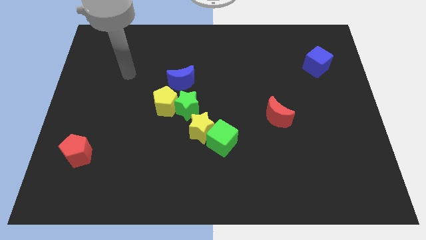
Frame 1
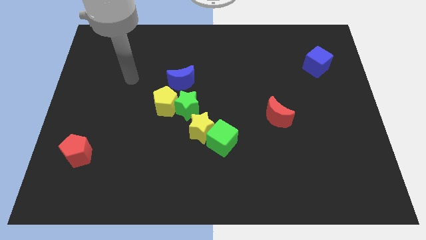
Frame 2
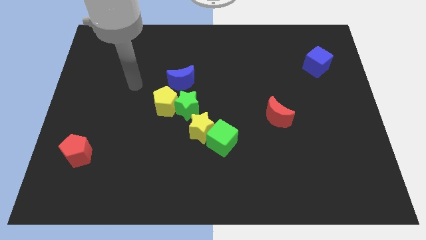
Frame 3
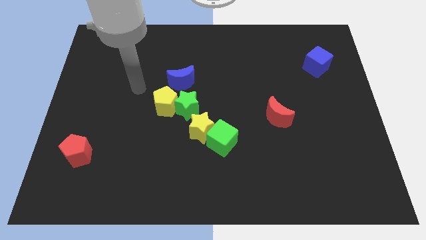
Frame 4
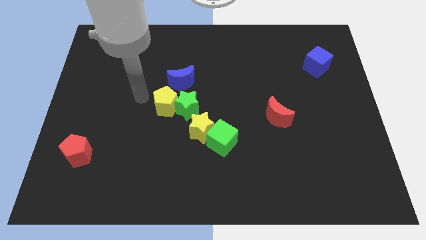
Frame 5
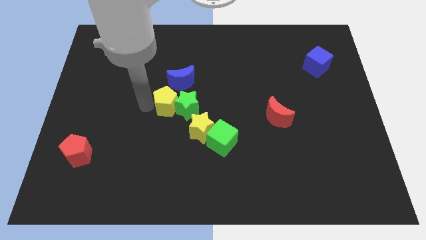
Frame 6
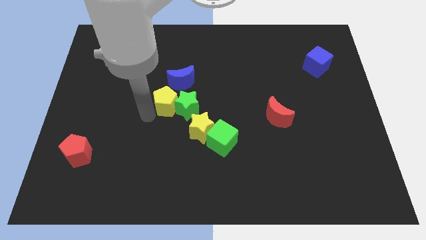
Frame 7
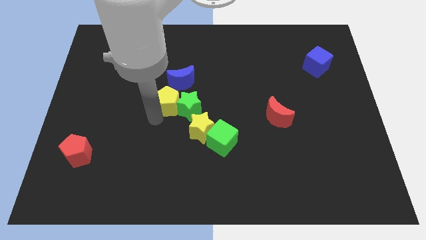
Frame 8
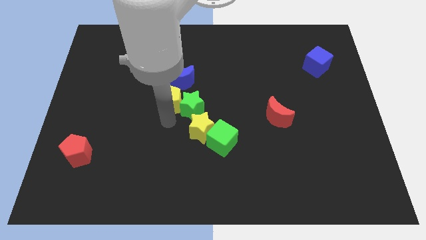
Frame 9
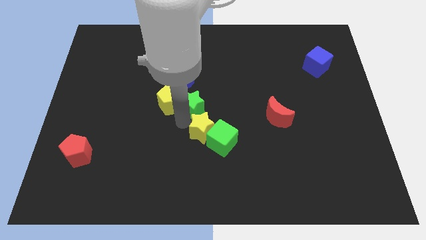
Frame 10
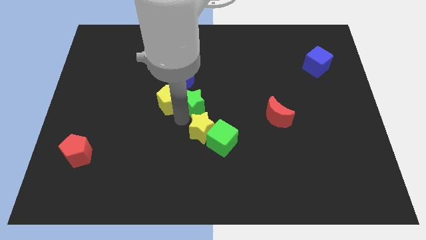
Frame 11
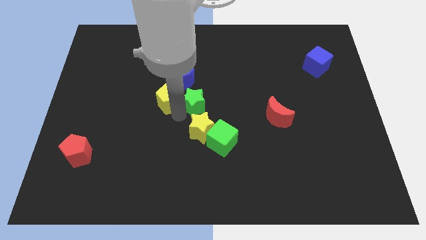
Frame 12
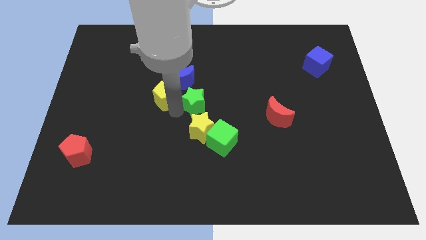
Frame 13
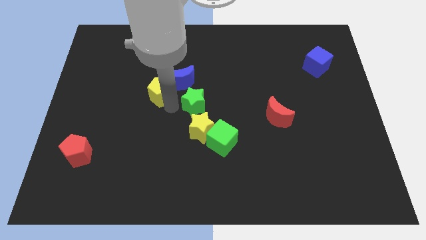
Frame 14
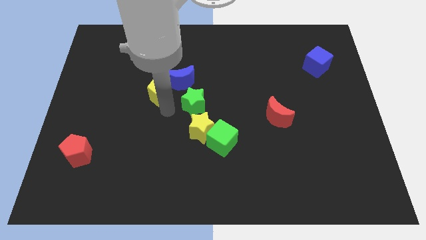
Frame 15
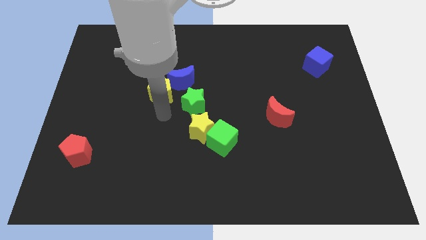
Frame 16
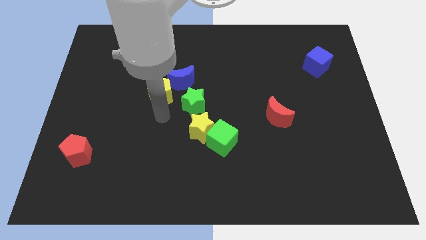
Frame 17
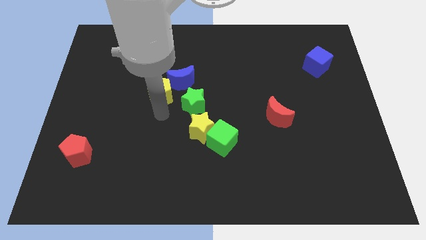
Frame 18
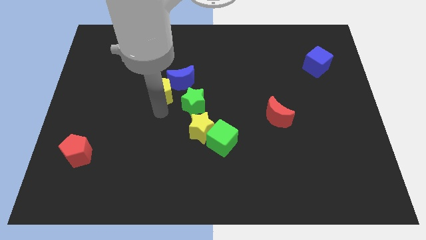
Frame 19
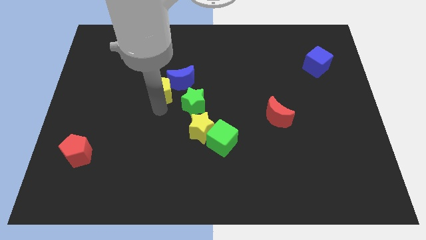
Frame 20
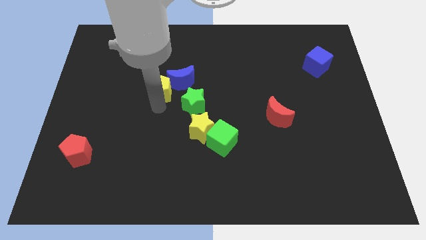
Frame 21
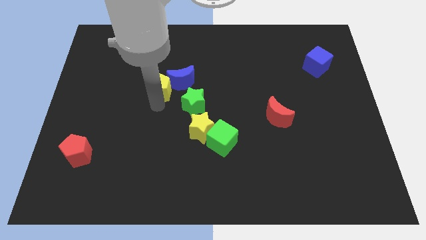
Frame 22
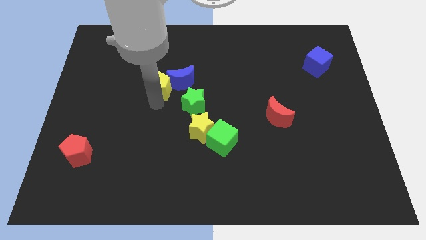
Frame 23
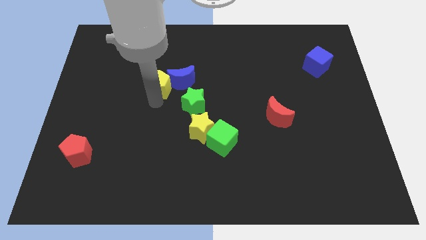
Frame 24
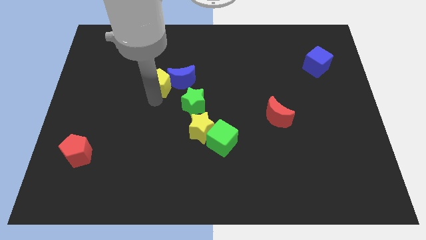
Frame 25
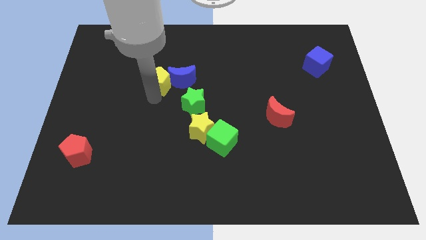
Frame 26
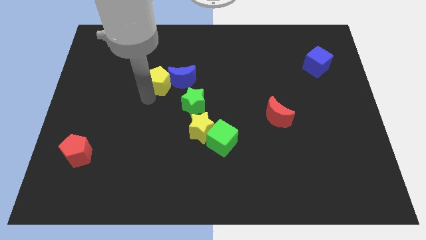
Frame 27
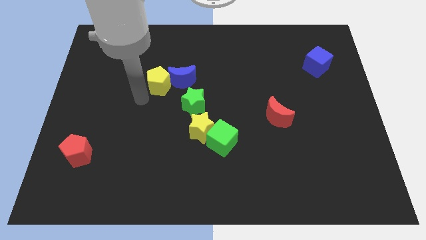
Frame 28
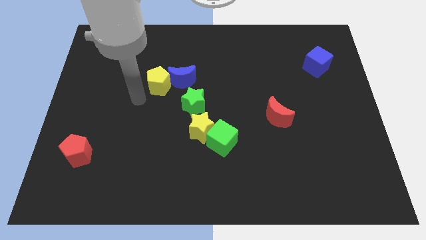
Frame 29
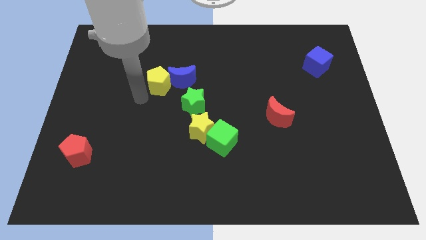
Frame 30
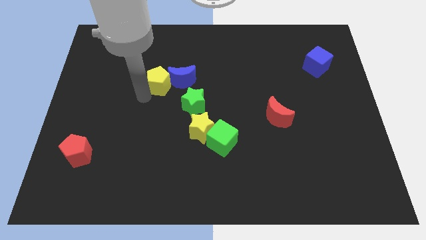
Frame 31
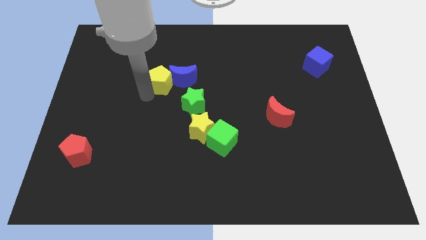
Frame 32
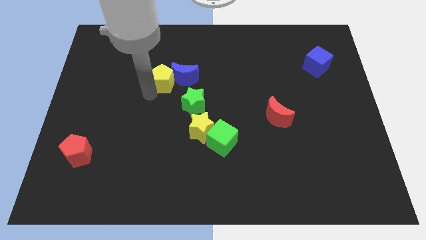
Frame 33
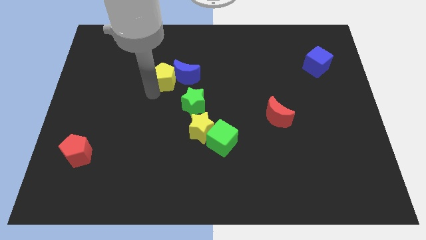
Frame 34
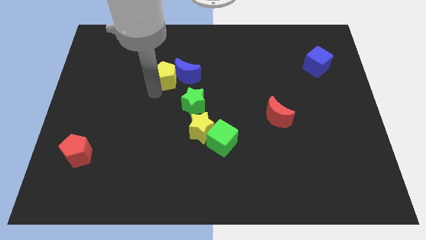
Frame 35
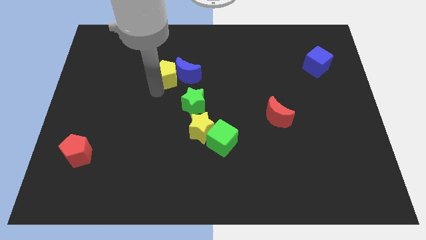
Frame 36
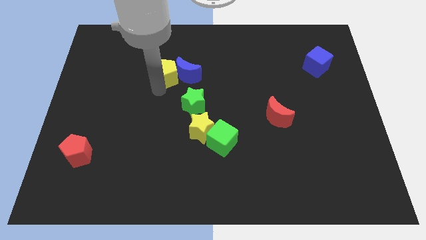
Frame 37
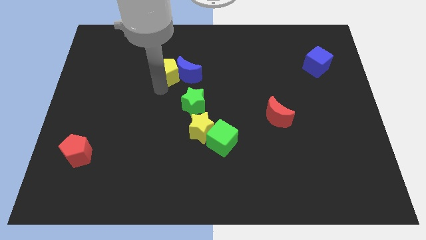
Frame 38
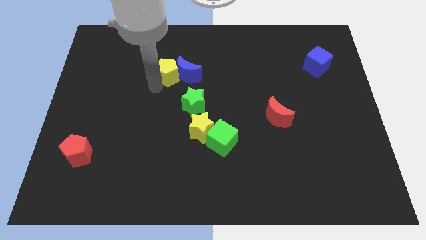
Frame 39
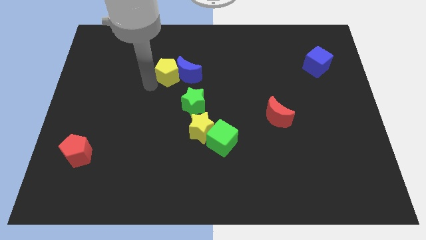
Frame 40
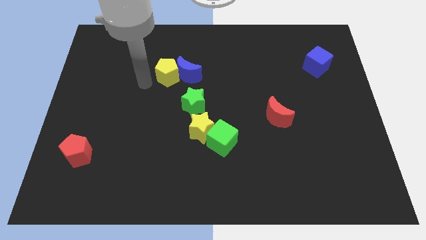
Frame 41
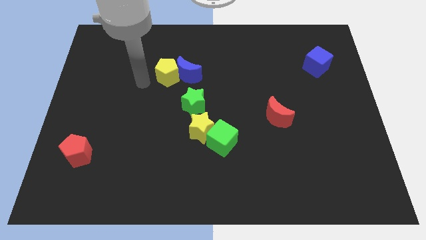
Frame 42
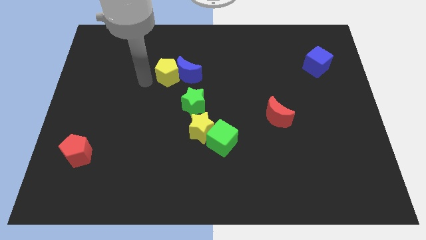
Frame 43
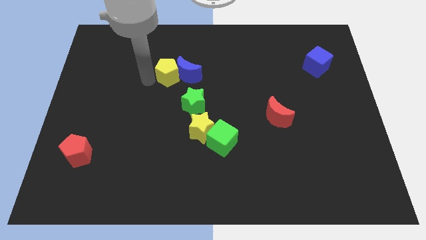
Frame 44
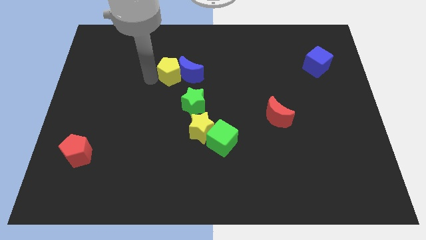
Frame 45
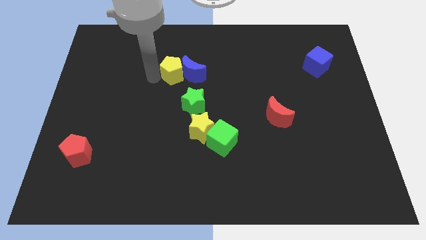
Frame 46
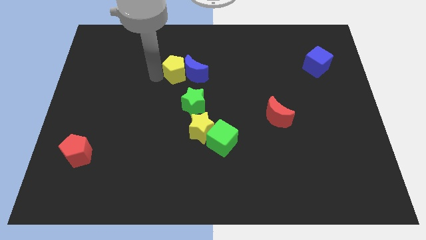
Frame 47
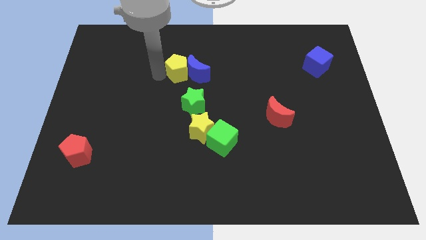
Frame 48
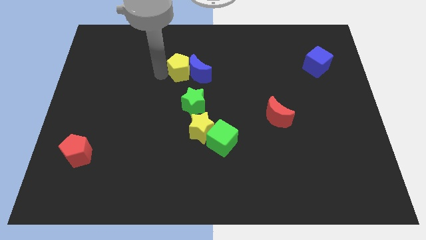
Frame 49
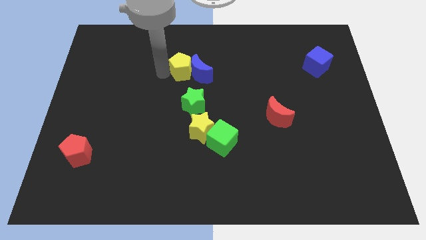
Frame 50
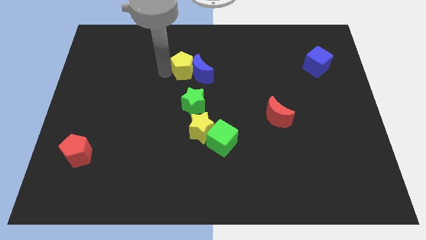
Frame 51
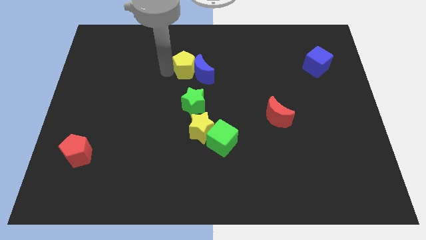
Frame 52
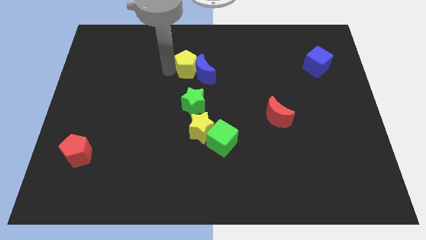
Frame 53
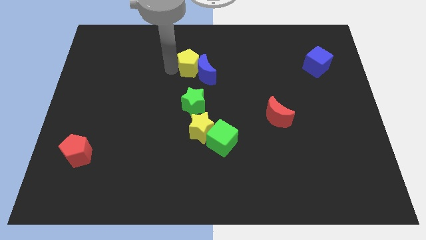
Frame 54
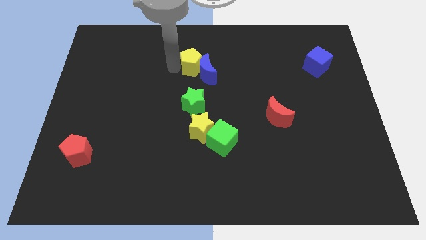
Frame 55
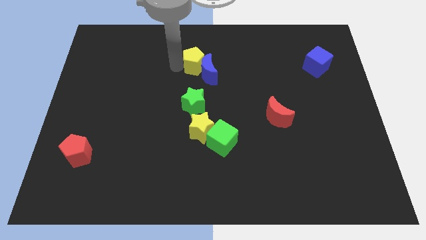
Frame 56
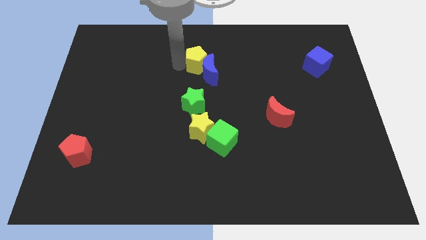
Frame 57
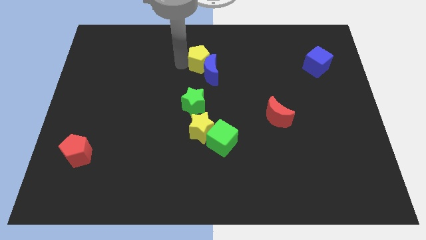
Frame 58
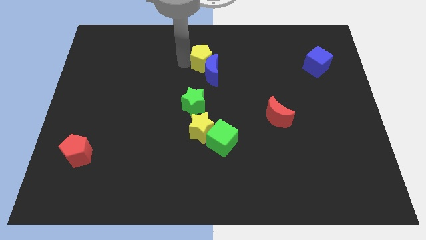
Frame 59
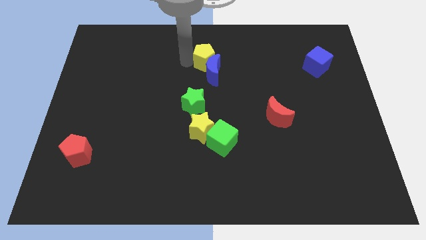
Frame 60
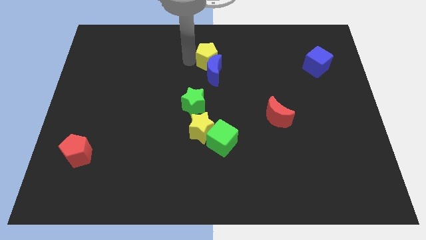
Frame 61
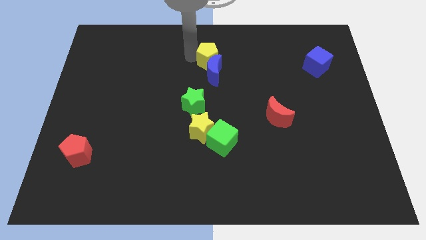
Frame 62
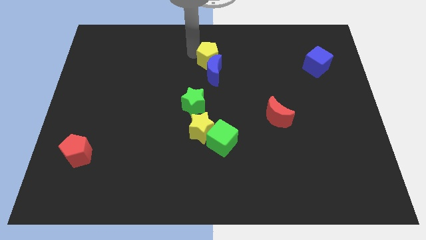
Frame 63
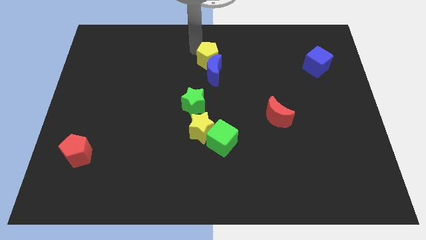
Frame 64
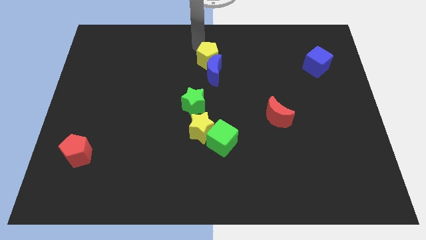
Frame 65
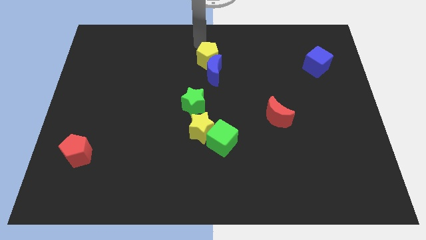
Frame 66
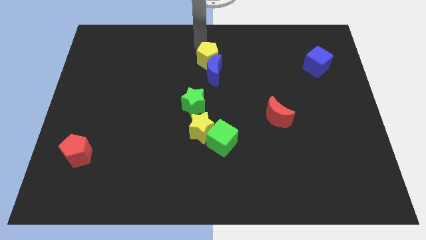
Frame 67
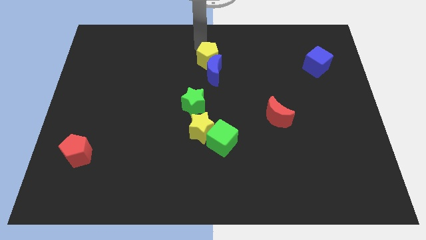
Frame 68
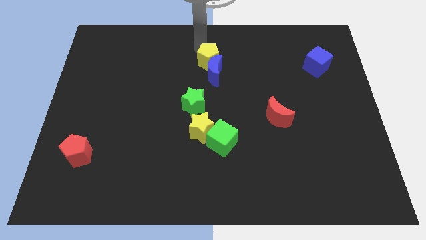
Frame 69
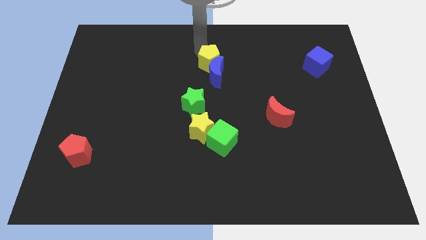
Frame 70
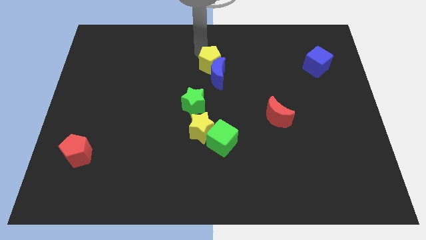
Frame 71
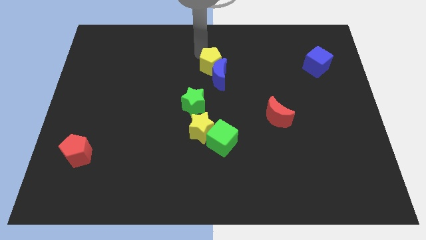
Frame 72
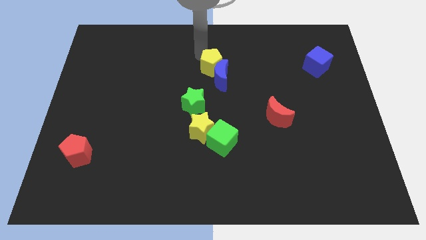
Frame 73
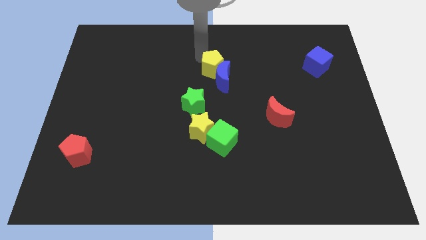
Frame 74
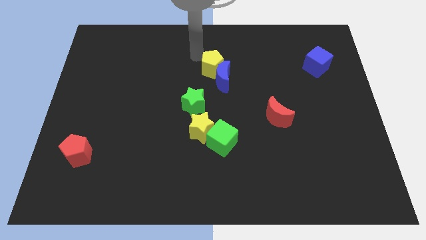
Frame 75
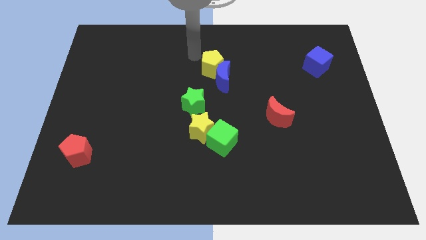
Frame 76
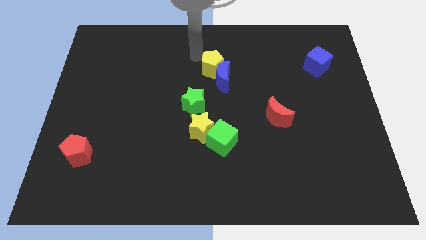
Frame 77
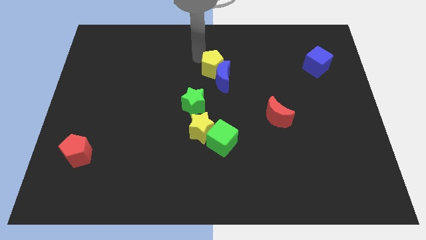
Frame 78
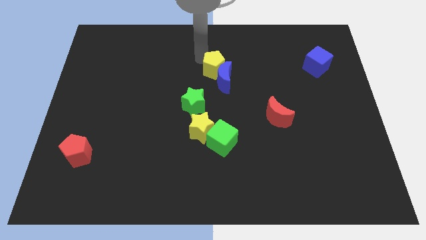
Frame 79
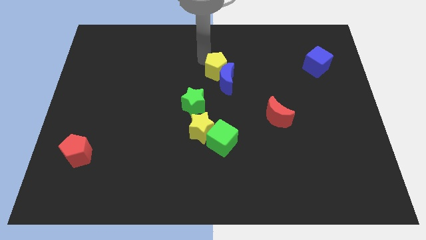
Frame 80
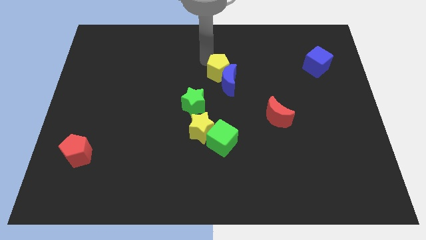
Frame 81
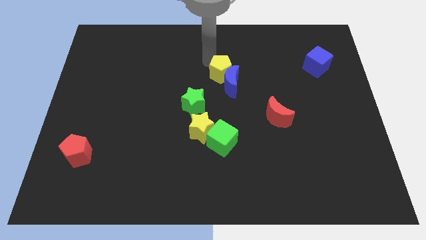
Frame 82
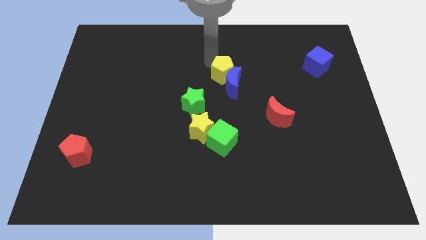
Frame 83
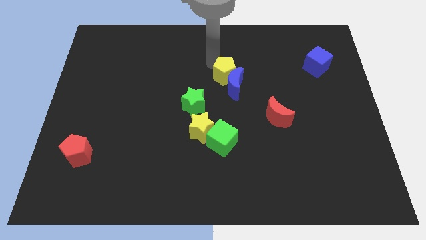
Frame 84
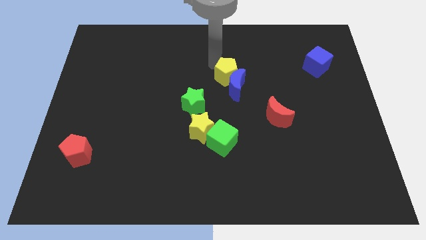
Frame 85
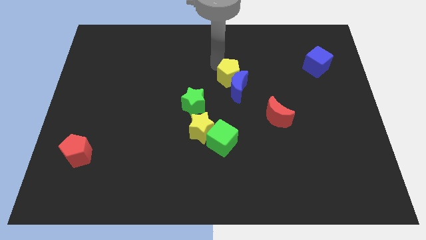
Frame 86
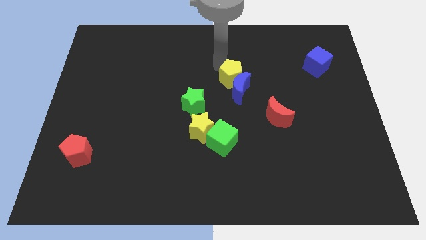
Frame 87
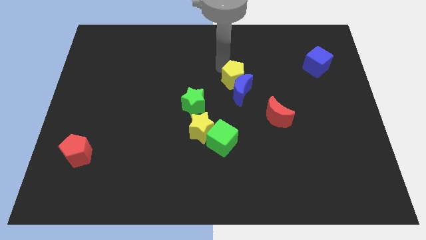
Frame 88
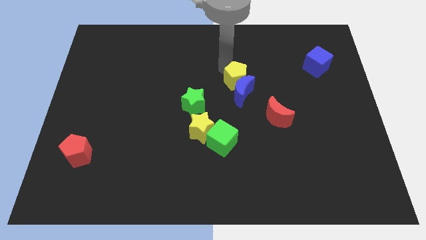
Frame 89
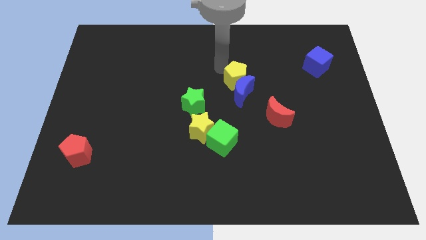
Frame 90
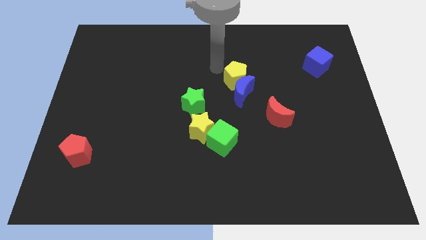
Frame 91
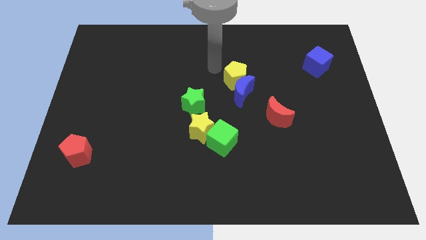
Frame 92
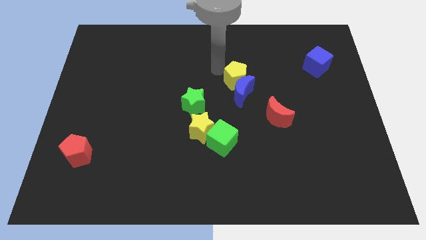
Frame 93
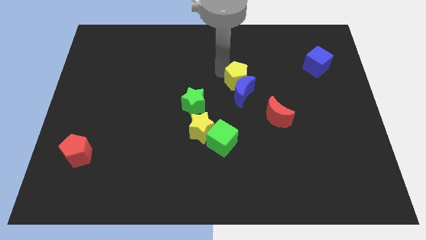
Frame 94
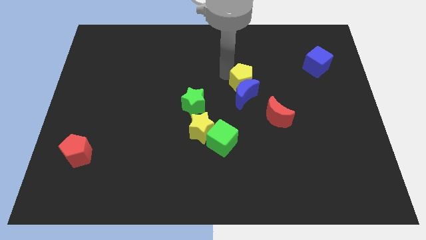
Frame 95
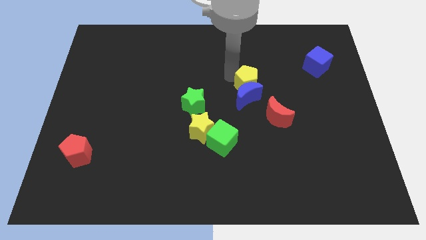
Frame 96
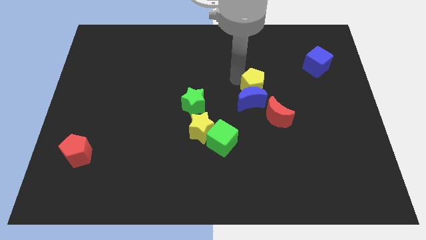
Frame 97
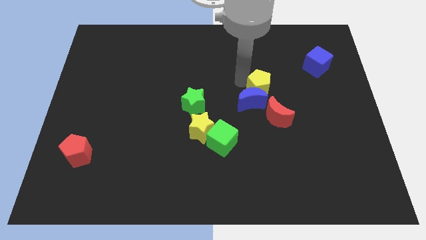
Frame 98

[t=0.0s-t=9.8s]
move the yellow pentagon to the right
